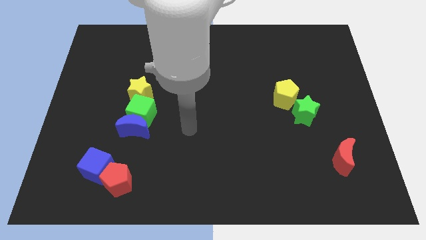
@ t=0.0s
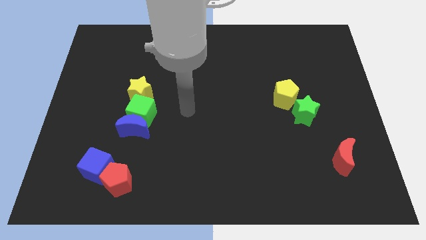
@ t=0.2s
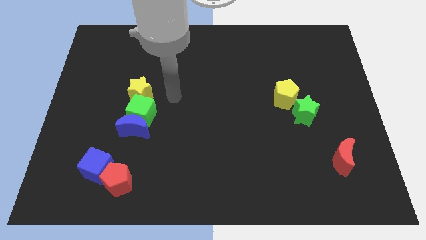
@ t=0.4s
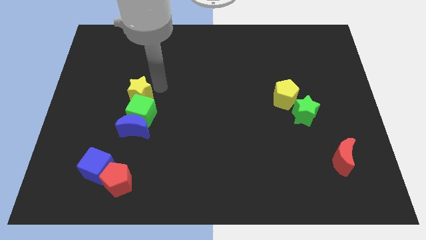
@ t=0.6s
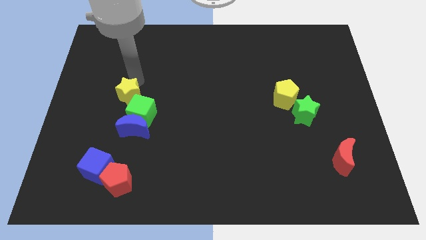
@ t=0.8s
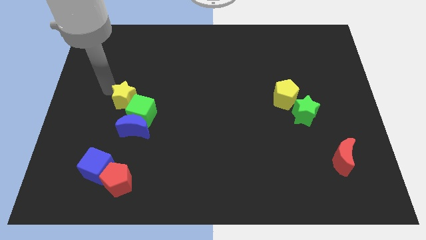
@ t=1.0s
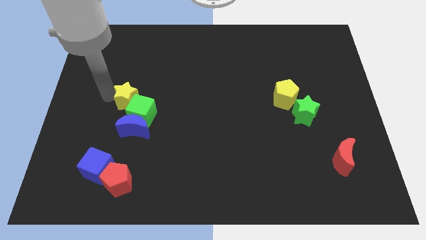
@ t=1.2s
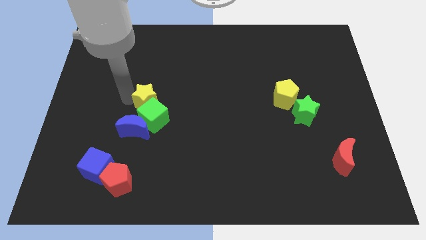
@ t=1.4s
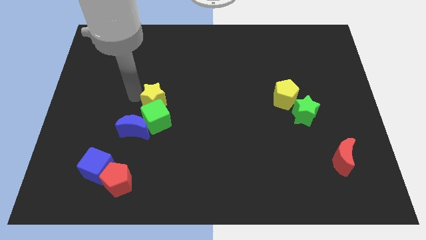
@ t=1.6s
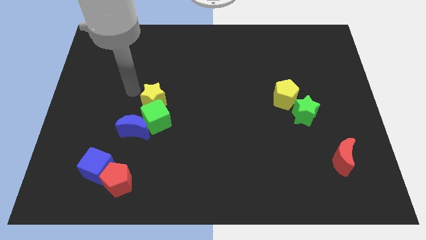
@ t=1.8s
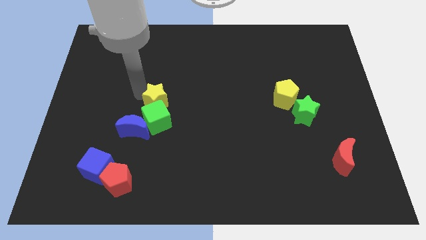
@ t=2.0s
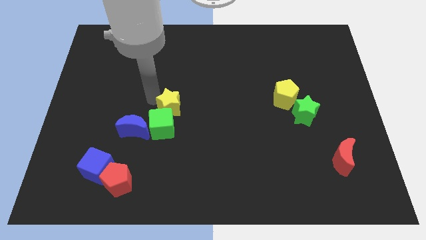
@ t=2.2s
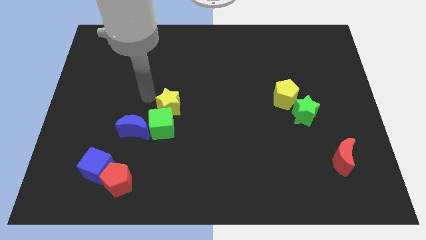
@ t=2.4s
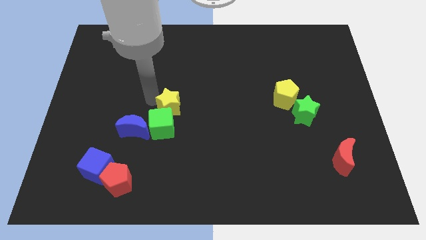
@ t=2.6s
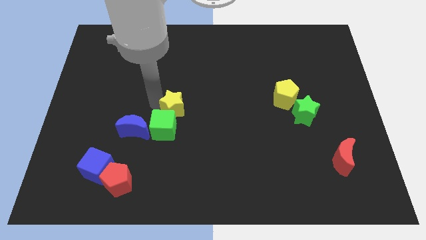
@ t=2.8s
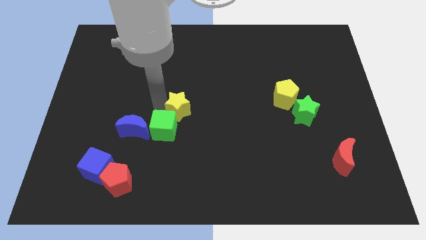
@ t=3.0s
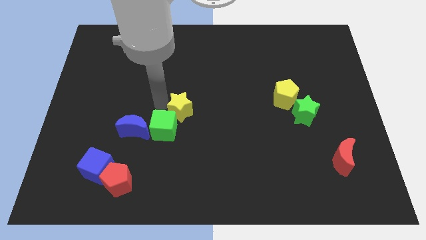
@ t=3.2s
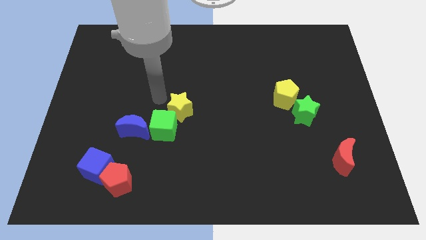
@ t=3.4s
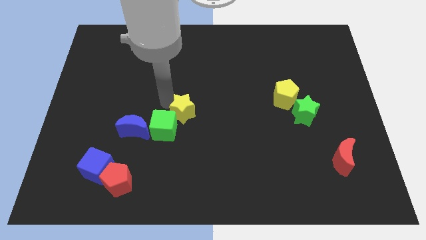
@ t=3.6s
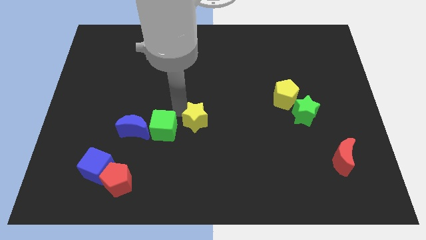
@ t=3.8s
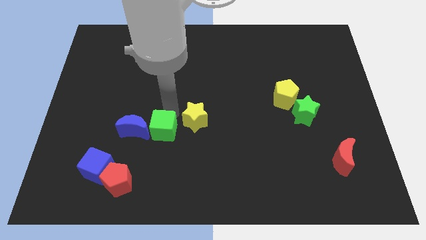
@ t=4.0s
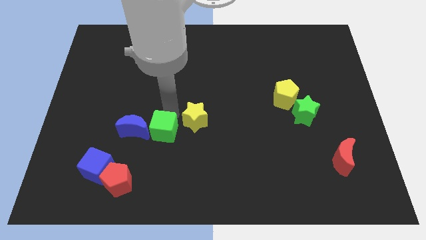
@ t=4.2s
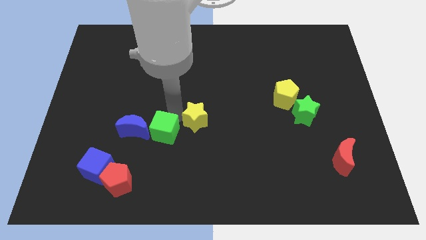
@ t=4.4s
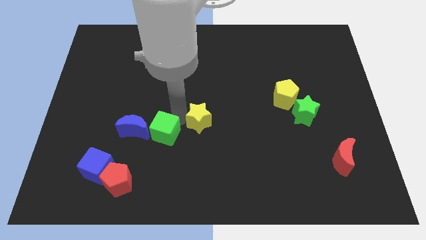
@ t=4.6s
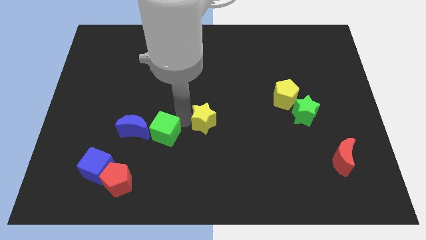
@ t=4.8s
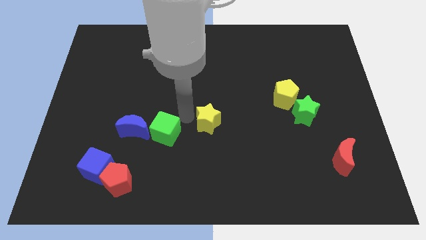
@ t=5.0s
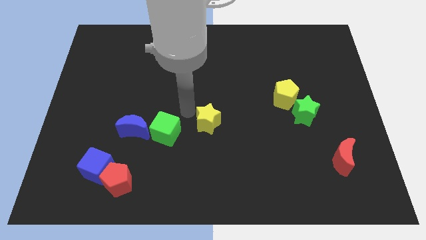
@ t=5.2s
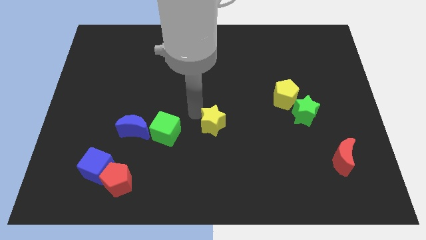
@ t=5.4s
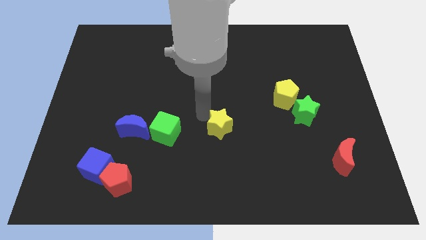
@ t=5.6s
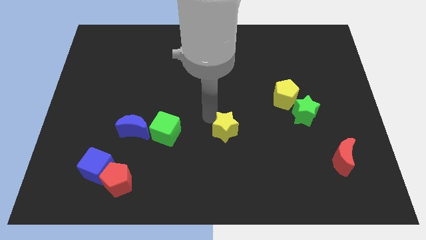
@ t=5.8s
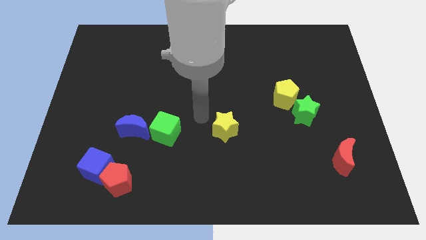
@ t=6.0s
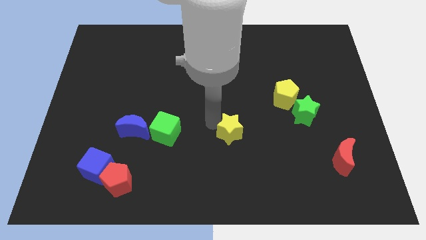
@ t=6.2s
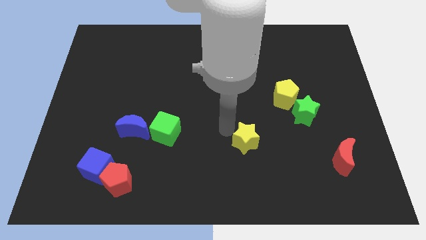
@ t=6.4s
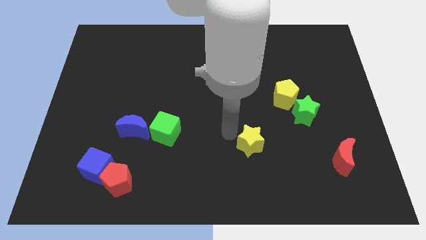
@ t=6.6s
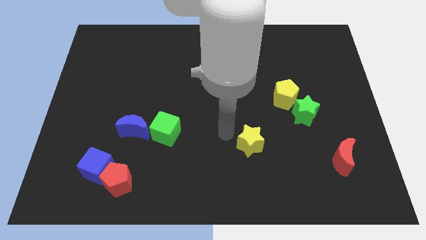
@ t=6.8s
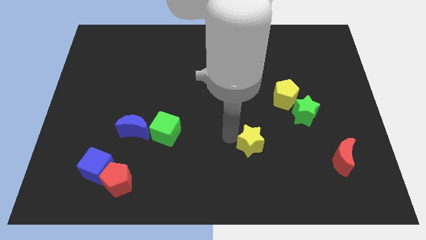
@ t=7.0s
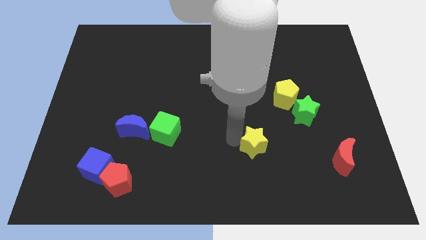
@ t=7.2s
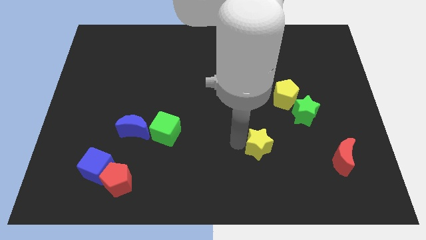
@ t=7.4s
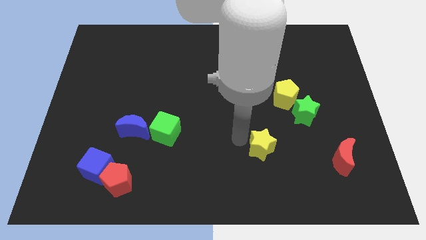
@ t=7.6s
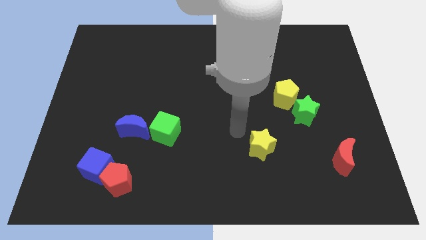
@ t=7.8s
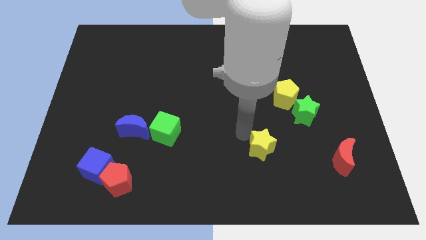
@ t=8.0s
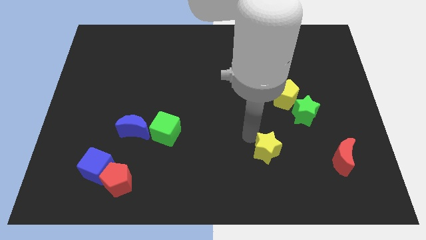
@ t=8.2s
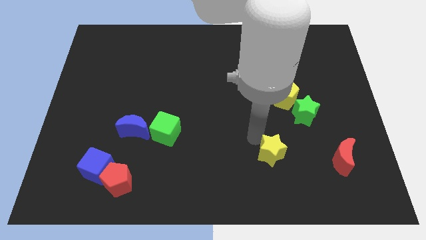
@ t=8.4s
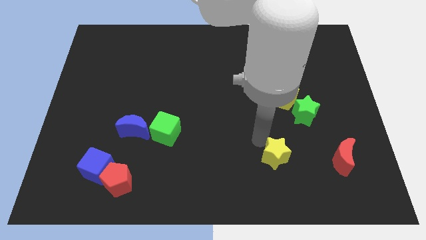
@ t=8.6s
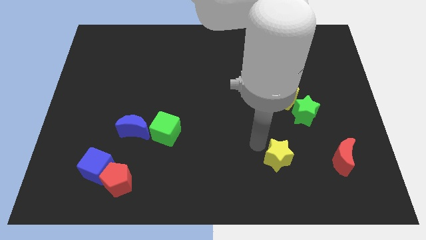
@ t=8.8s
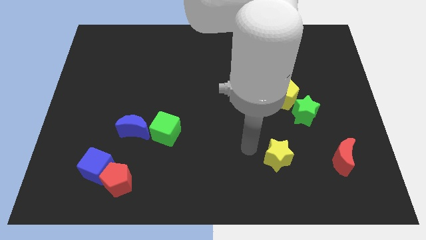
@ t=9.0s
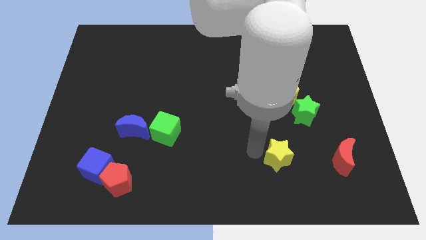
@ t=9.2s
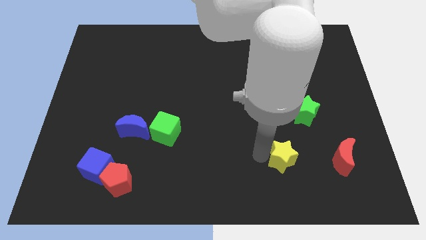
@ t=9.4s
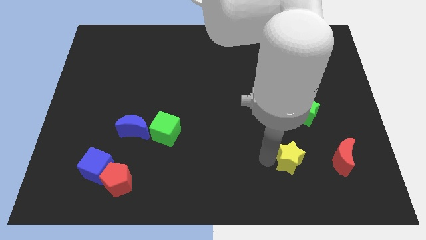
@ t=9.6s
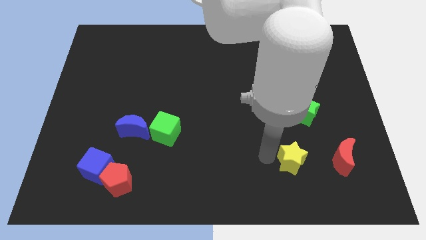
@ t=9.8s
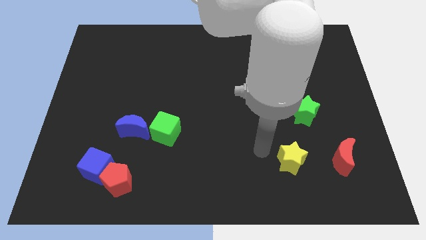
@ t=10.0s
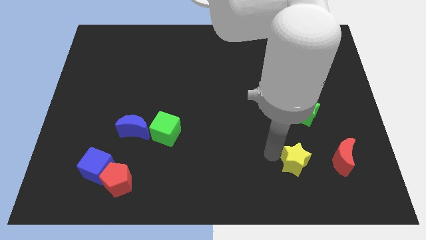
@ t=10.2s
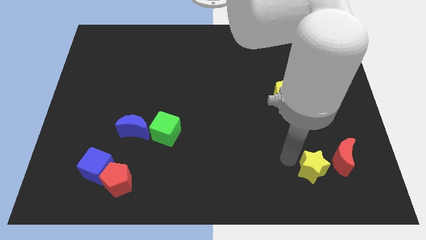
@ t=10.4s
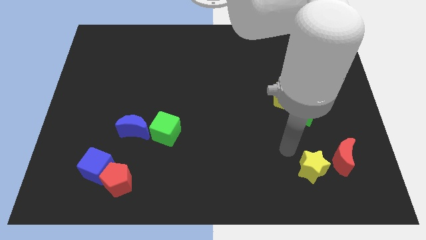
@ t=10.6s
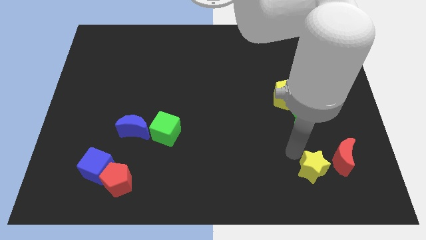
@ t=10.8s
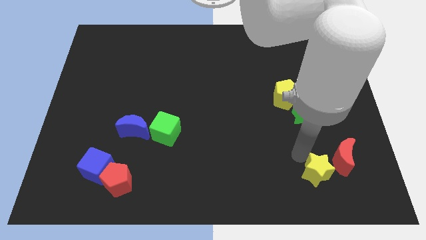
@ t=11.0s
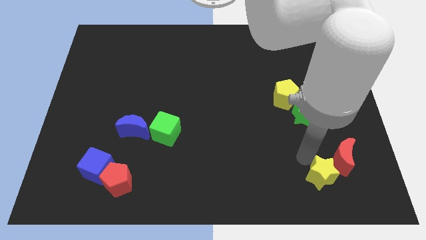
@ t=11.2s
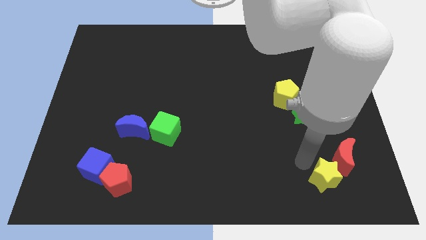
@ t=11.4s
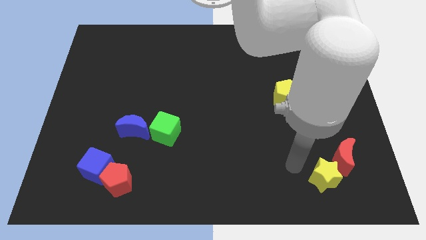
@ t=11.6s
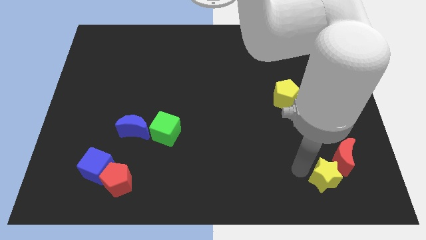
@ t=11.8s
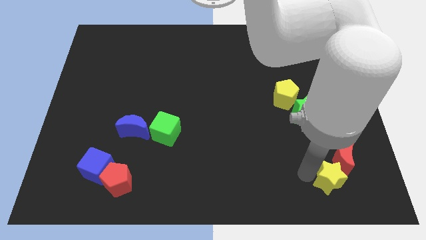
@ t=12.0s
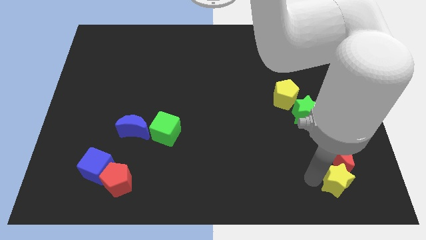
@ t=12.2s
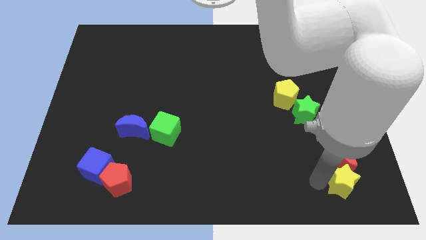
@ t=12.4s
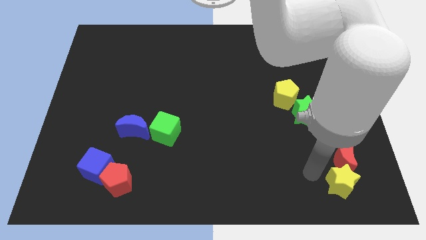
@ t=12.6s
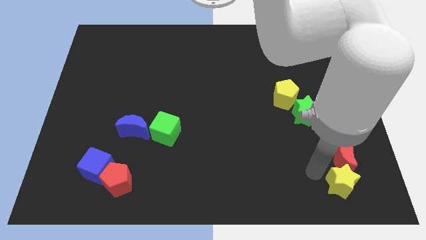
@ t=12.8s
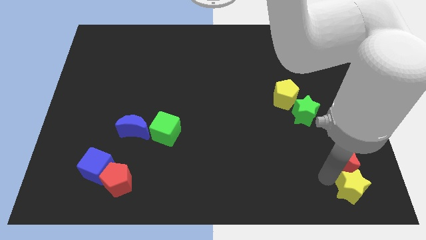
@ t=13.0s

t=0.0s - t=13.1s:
put the yellow star to the bottom right

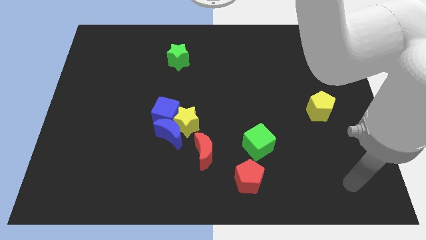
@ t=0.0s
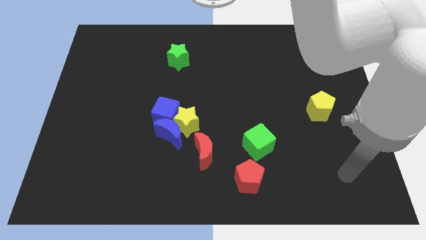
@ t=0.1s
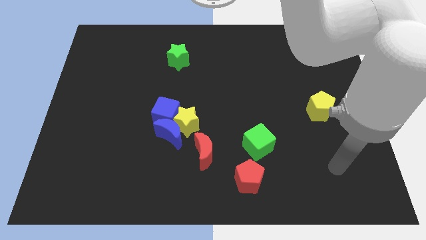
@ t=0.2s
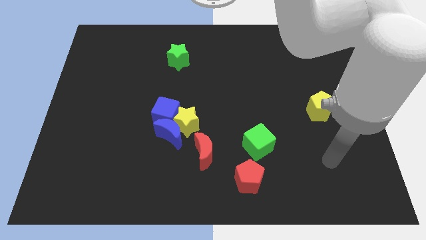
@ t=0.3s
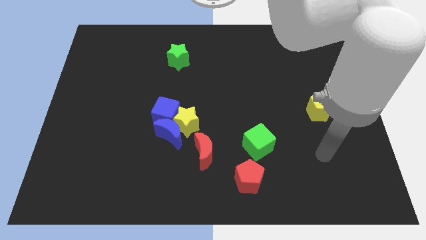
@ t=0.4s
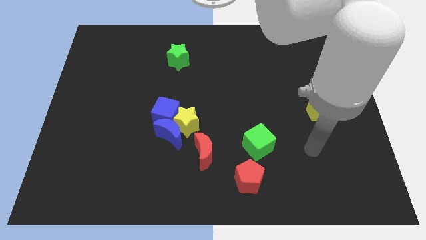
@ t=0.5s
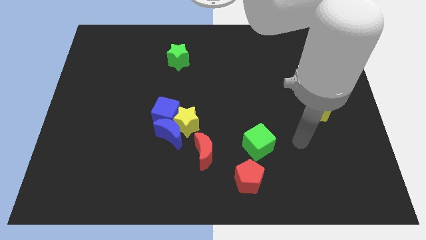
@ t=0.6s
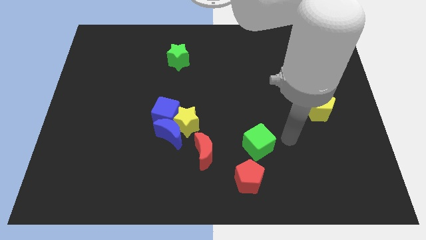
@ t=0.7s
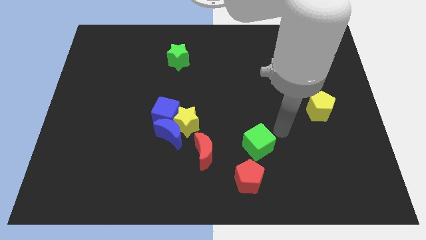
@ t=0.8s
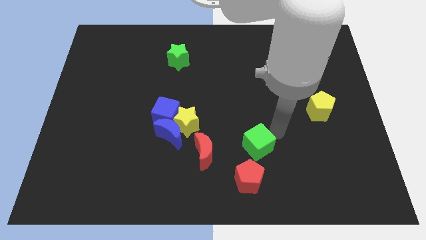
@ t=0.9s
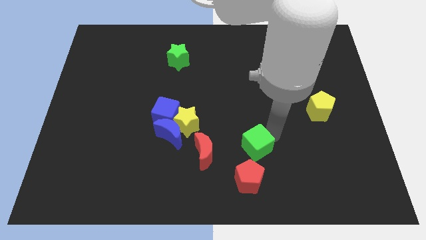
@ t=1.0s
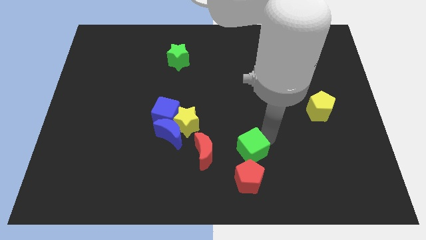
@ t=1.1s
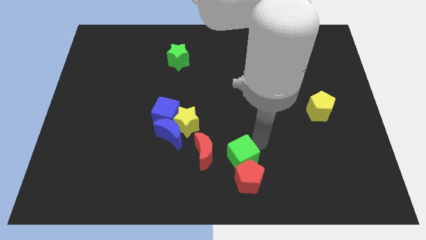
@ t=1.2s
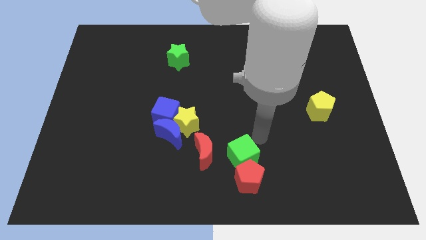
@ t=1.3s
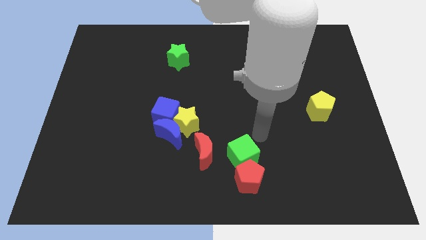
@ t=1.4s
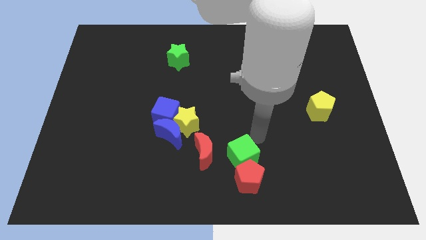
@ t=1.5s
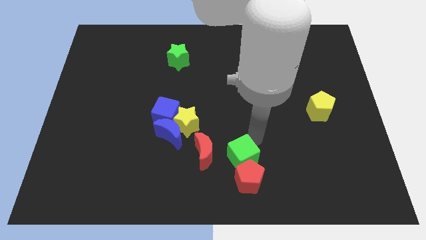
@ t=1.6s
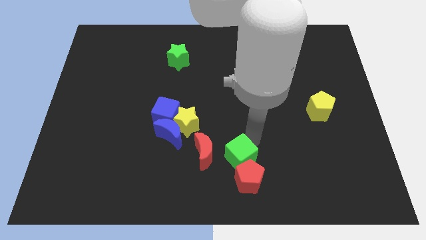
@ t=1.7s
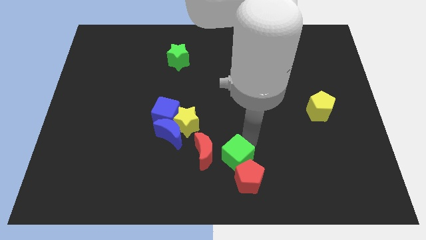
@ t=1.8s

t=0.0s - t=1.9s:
slide the green cube to the bottom side
